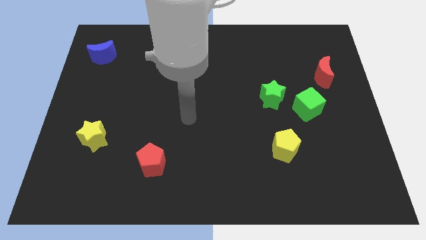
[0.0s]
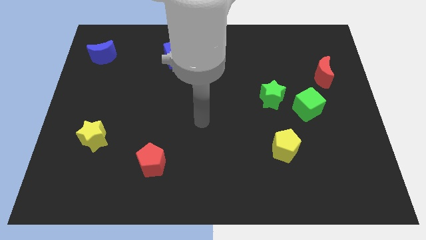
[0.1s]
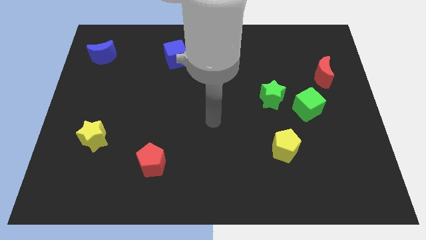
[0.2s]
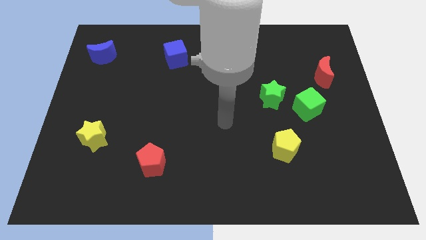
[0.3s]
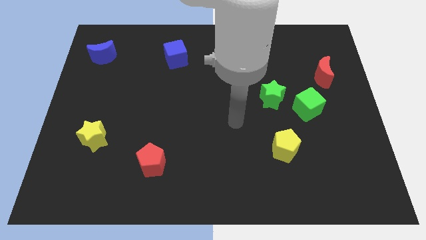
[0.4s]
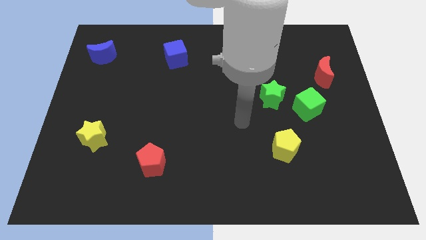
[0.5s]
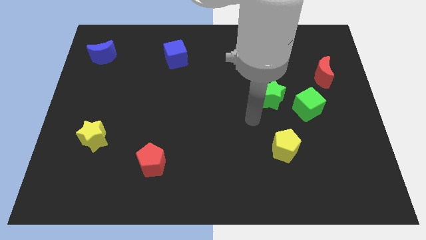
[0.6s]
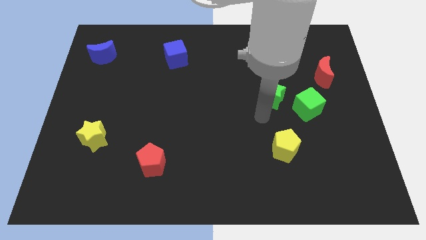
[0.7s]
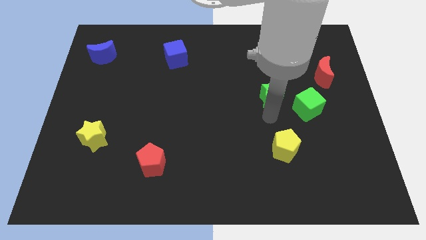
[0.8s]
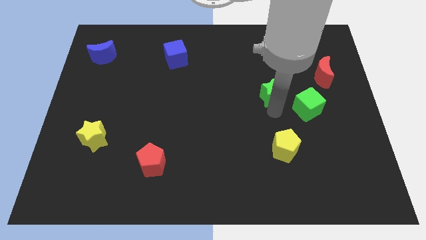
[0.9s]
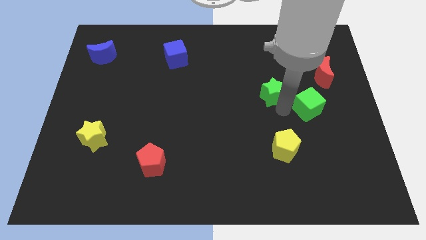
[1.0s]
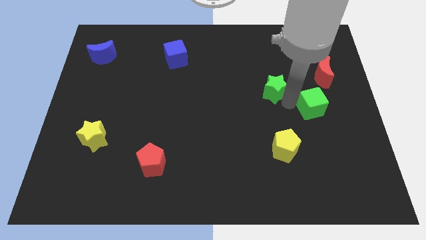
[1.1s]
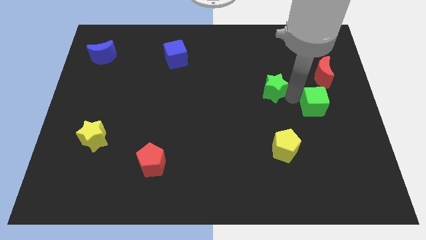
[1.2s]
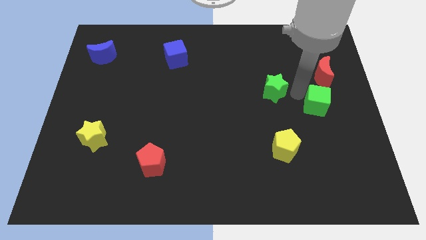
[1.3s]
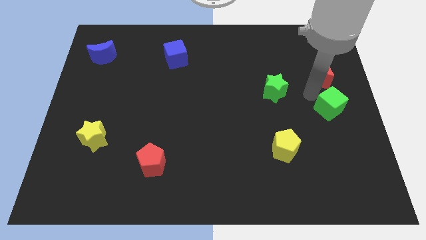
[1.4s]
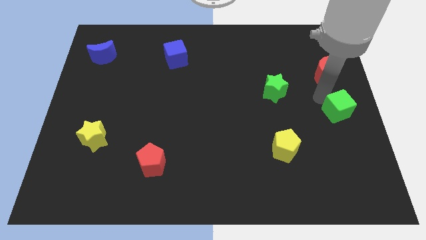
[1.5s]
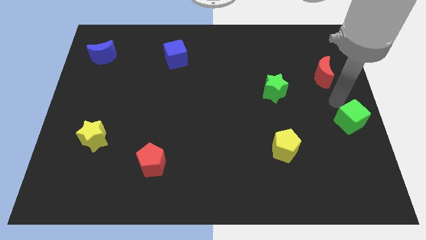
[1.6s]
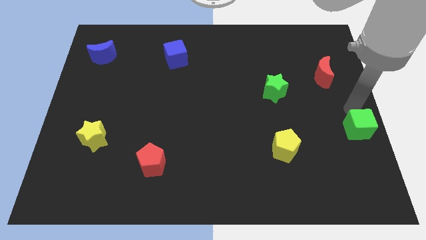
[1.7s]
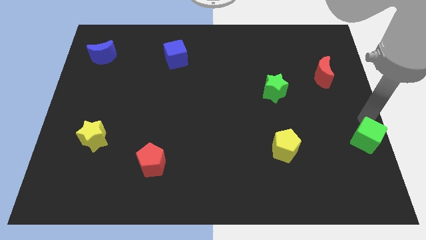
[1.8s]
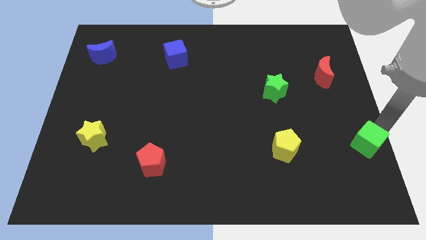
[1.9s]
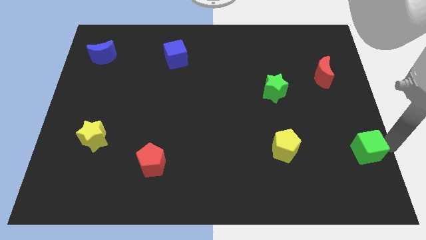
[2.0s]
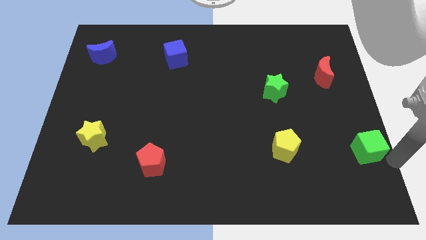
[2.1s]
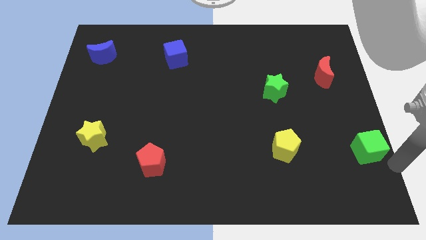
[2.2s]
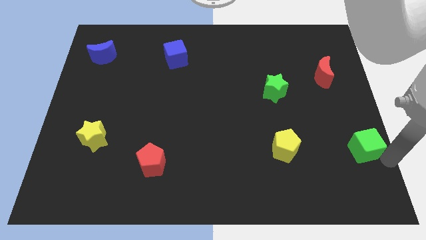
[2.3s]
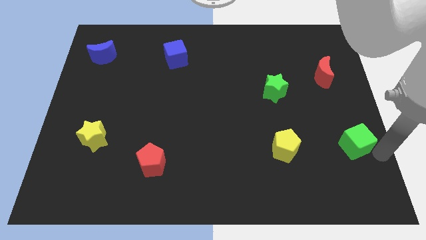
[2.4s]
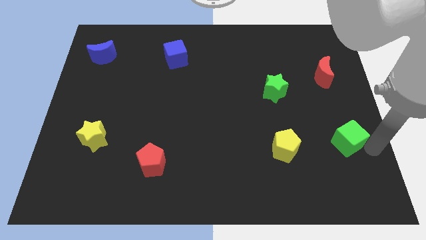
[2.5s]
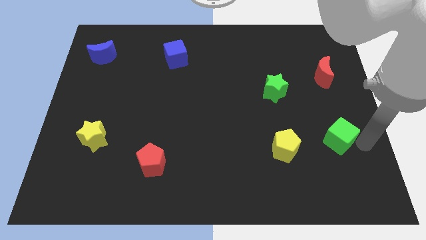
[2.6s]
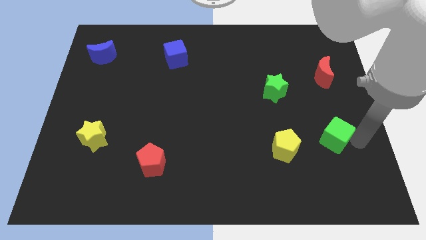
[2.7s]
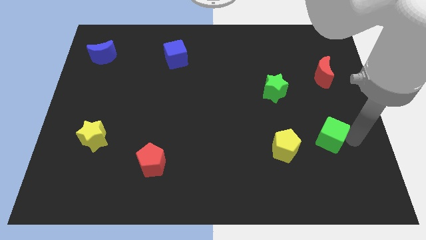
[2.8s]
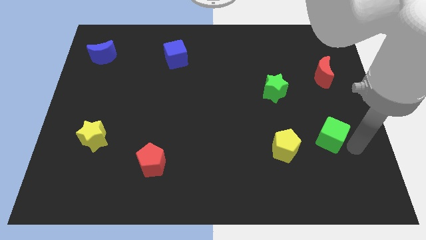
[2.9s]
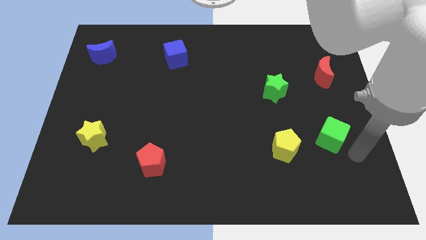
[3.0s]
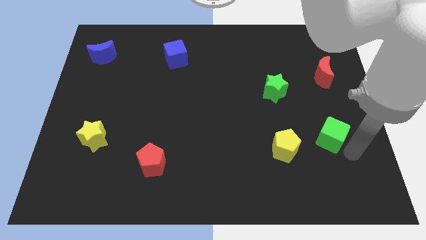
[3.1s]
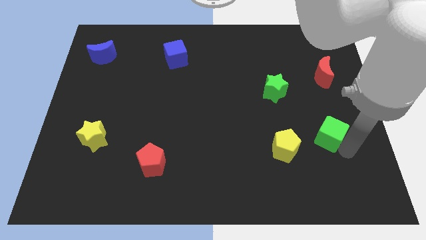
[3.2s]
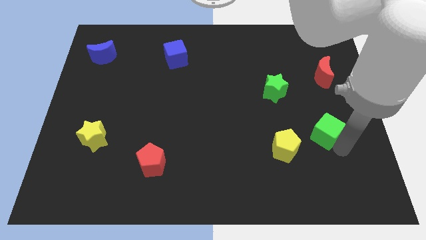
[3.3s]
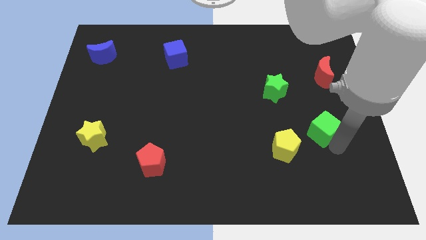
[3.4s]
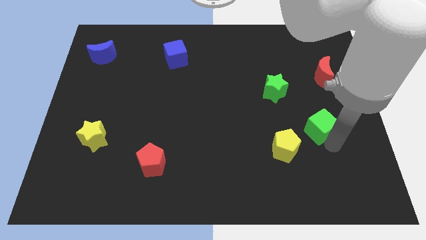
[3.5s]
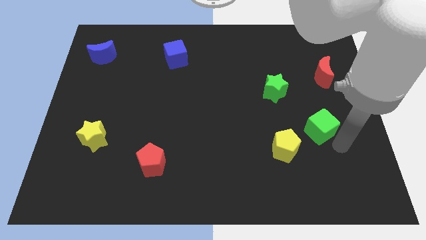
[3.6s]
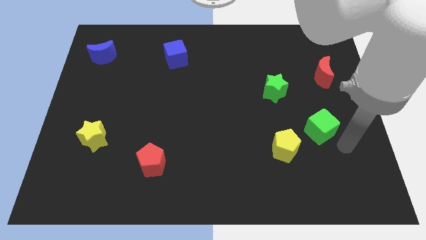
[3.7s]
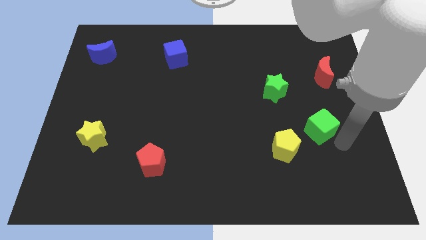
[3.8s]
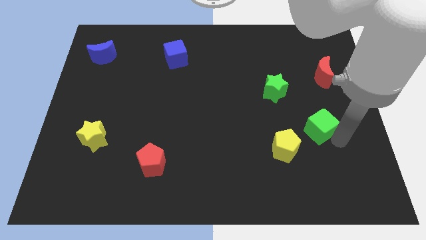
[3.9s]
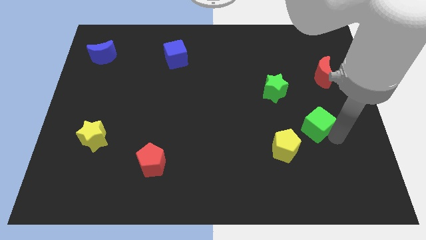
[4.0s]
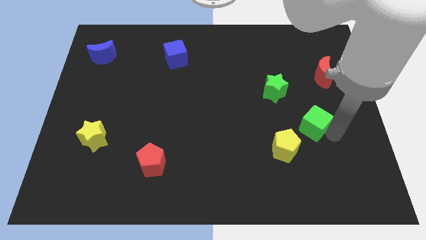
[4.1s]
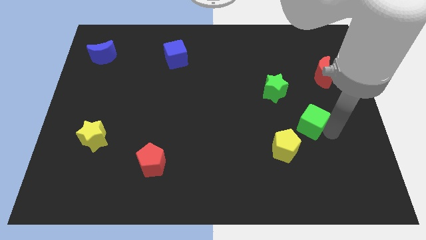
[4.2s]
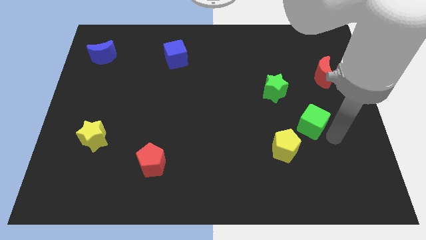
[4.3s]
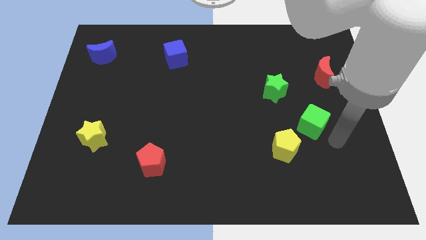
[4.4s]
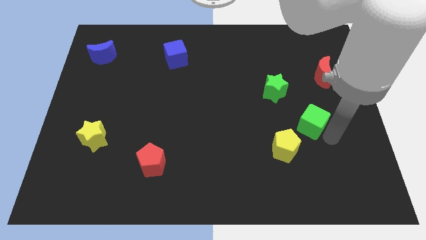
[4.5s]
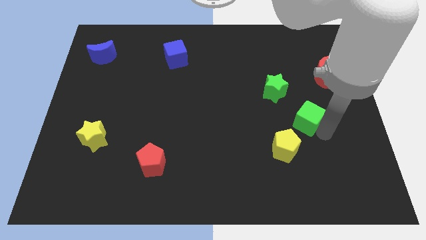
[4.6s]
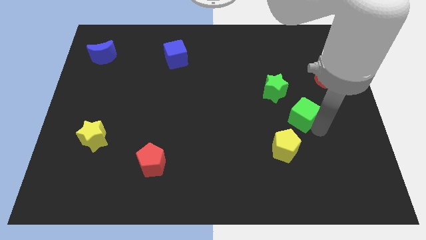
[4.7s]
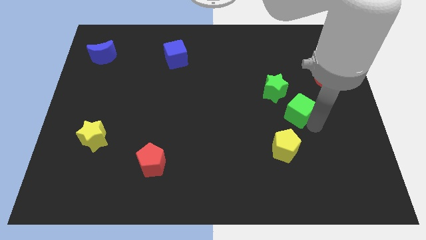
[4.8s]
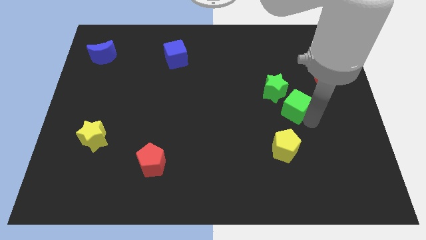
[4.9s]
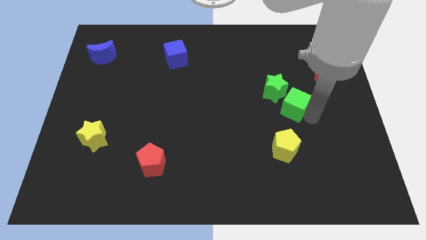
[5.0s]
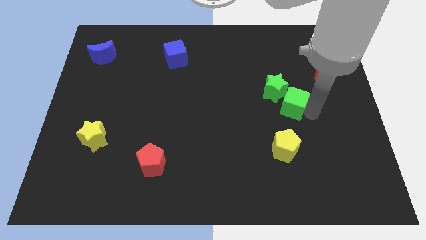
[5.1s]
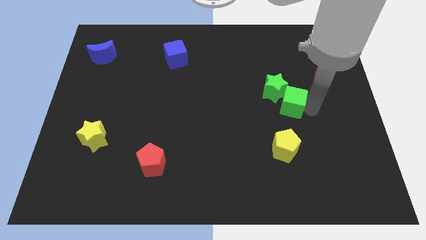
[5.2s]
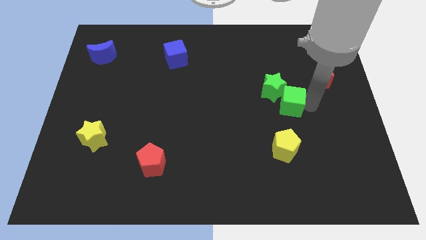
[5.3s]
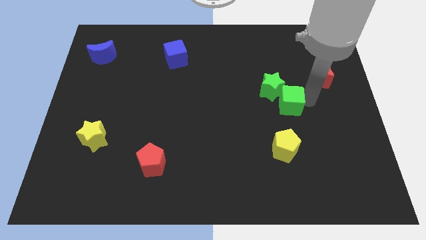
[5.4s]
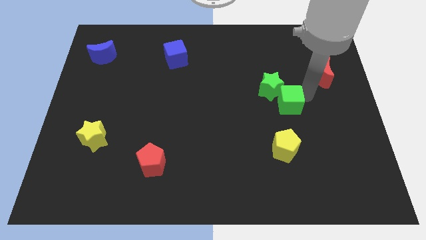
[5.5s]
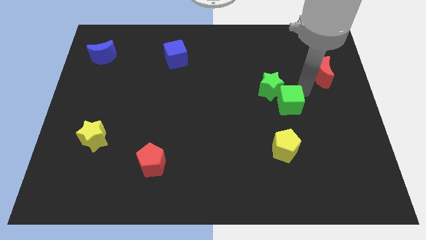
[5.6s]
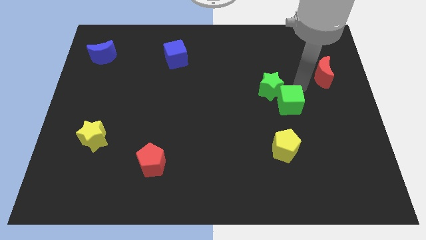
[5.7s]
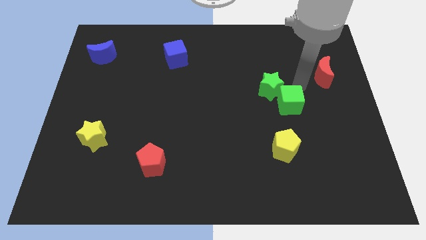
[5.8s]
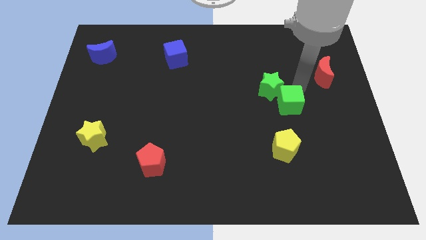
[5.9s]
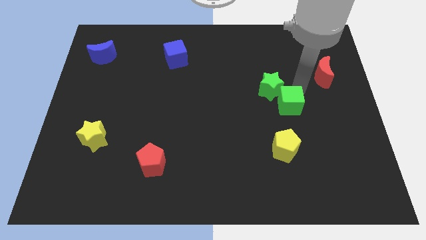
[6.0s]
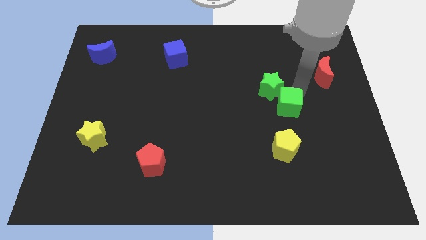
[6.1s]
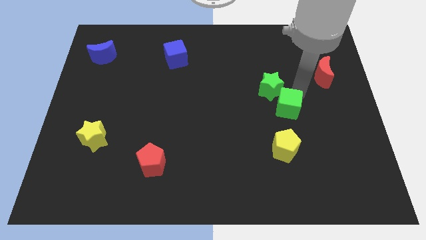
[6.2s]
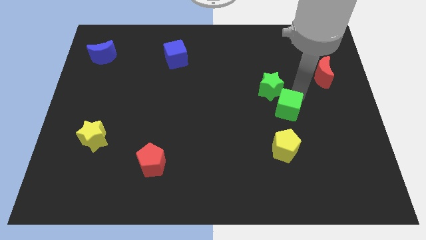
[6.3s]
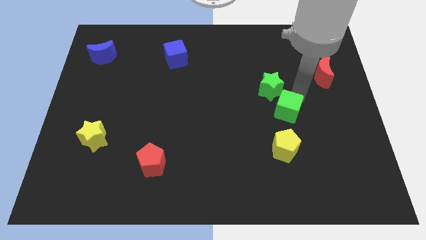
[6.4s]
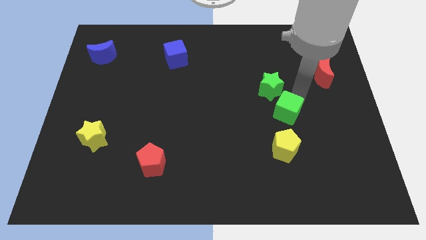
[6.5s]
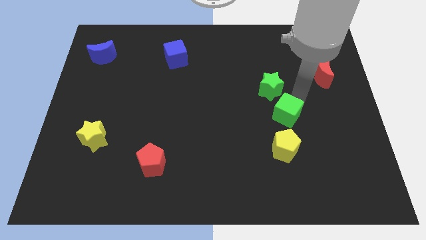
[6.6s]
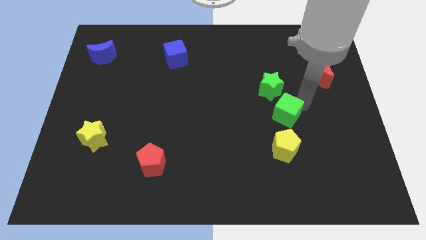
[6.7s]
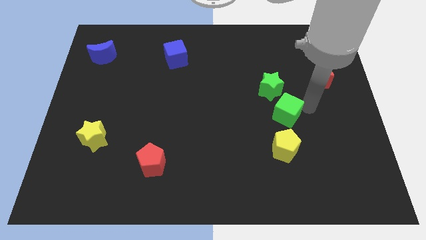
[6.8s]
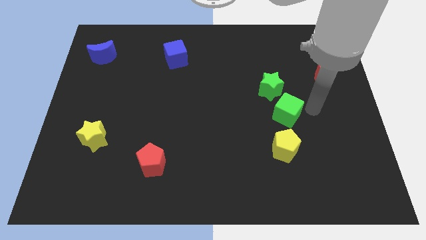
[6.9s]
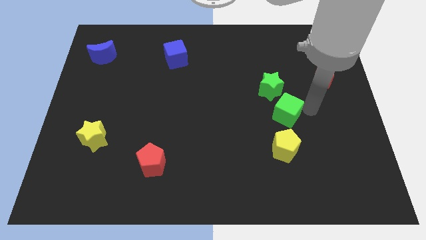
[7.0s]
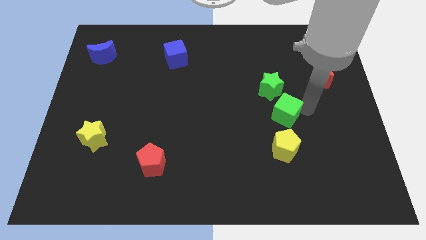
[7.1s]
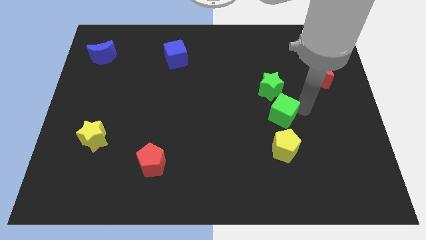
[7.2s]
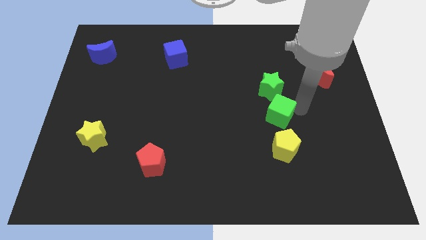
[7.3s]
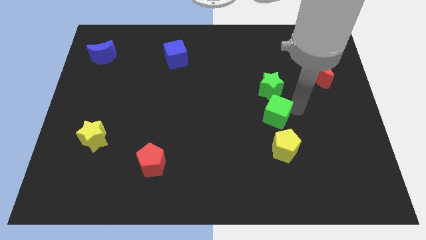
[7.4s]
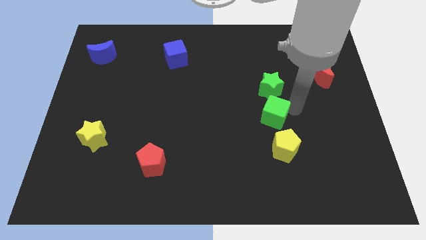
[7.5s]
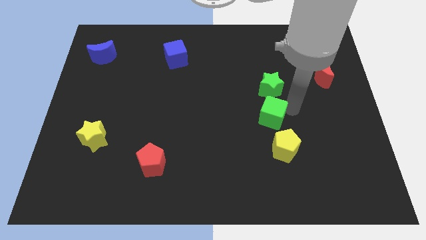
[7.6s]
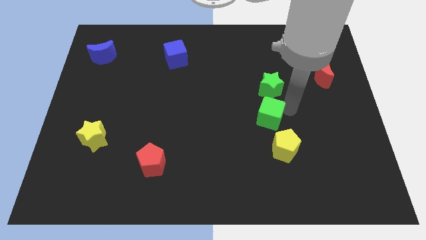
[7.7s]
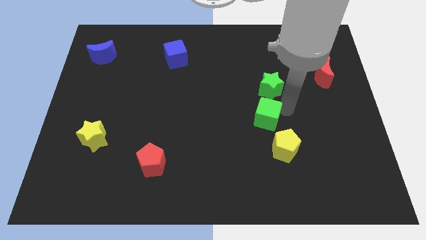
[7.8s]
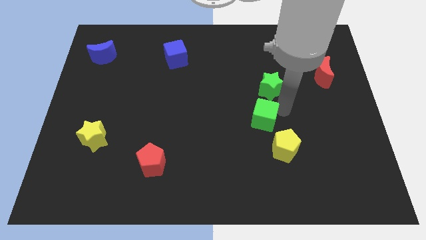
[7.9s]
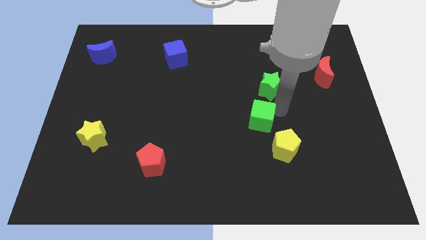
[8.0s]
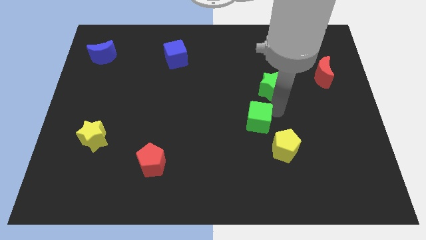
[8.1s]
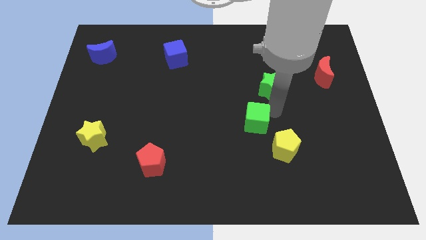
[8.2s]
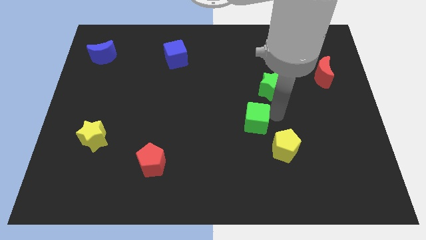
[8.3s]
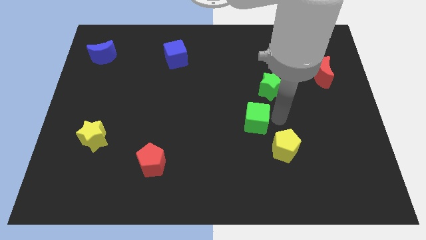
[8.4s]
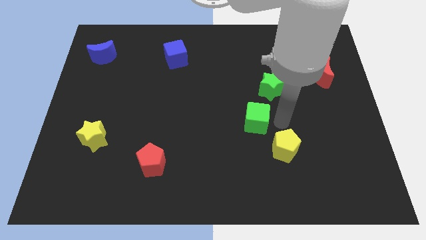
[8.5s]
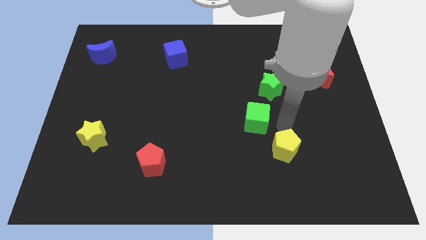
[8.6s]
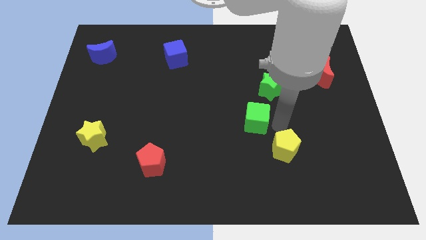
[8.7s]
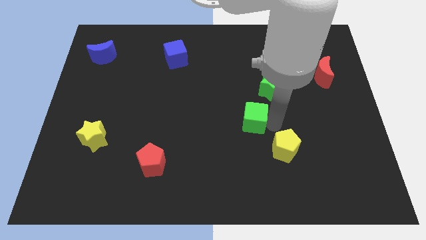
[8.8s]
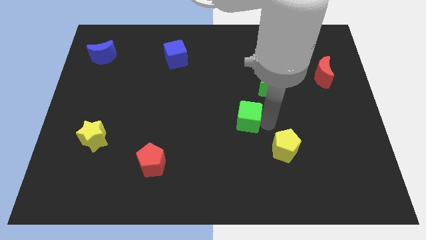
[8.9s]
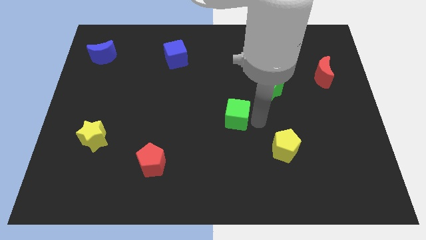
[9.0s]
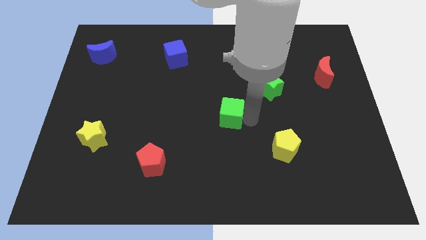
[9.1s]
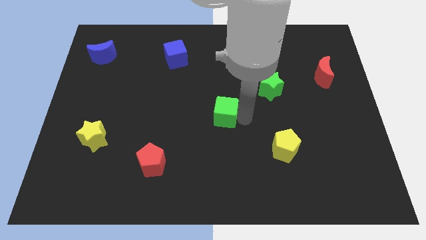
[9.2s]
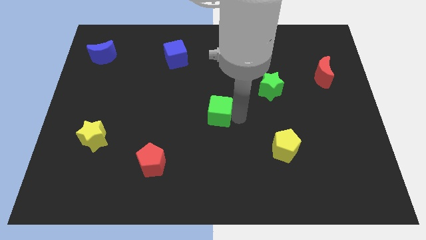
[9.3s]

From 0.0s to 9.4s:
move the green cube to the left
